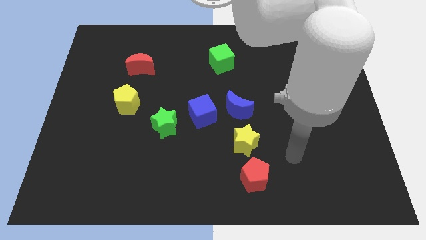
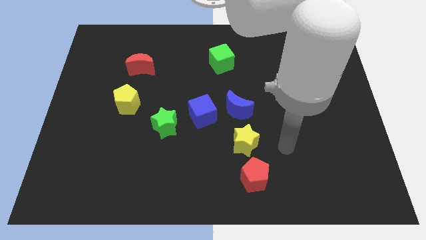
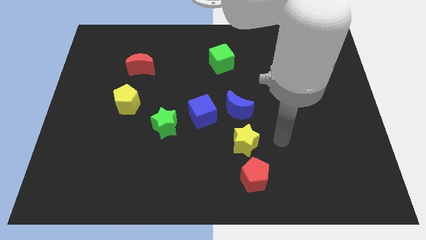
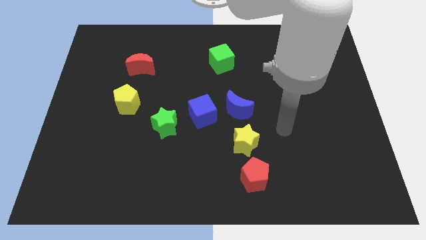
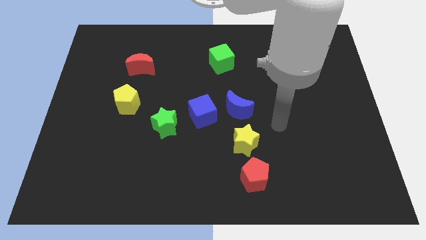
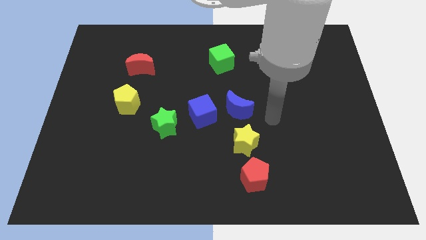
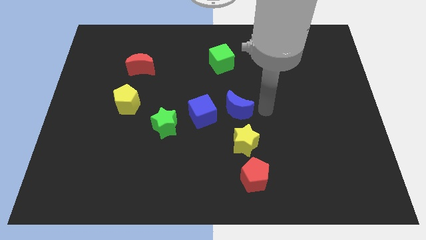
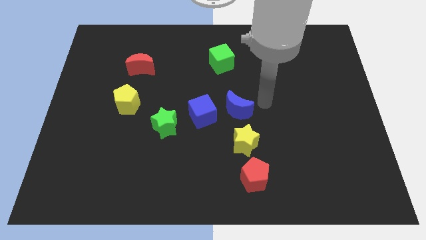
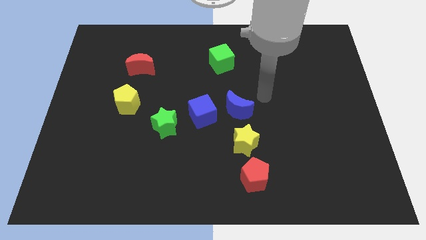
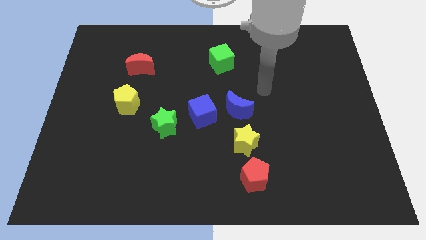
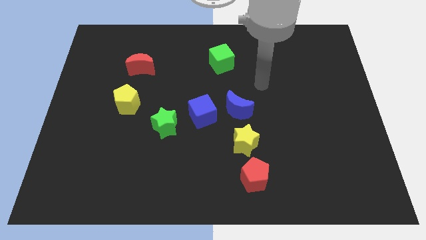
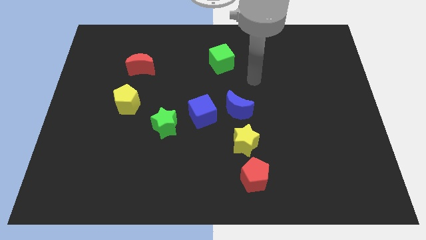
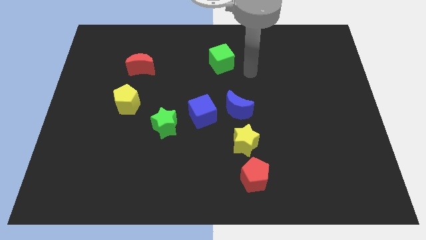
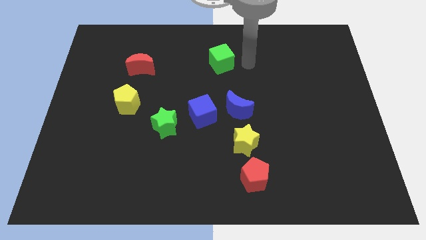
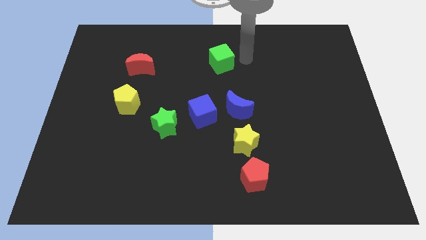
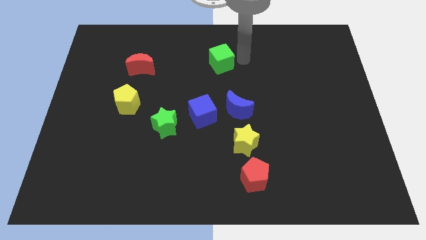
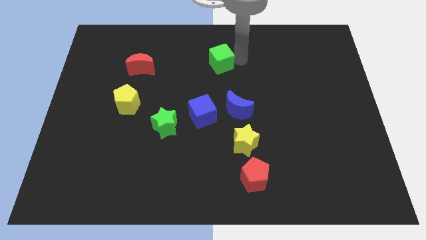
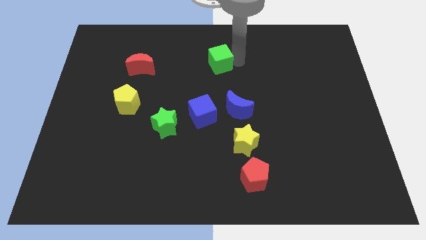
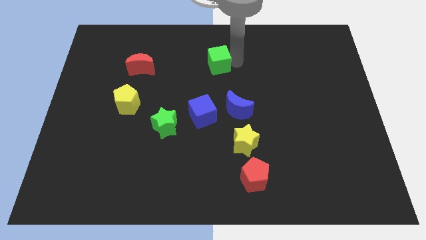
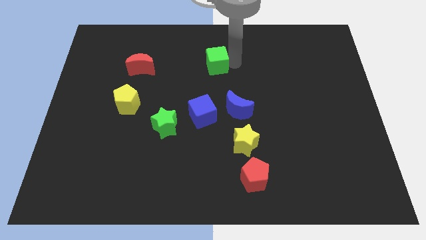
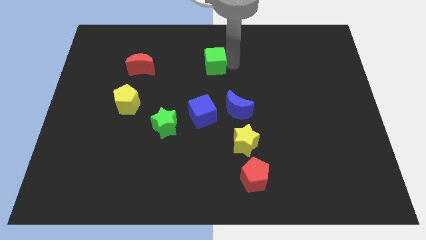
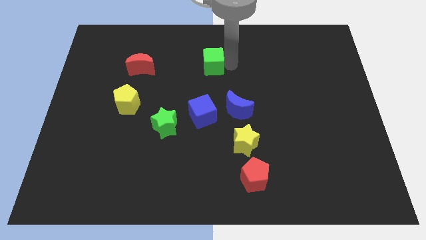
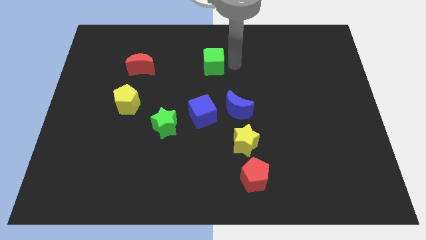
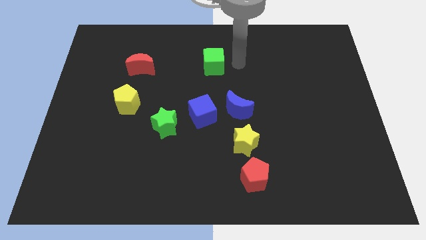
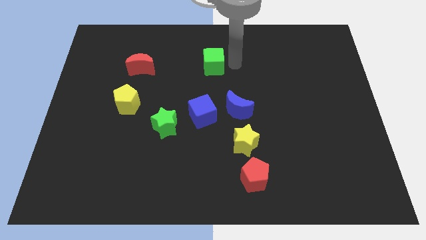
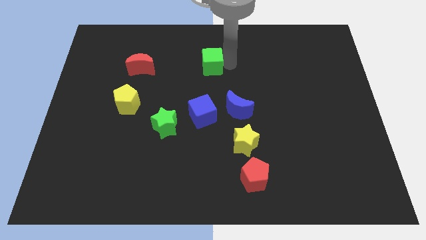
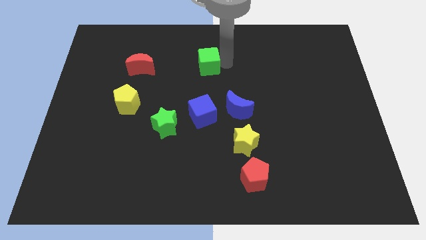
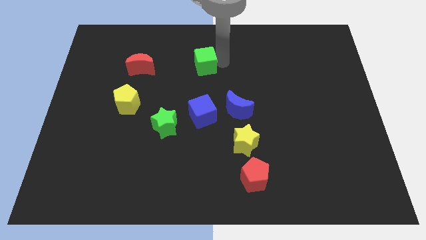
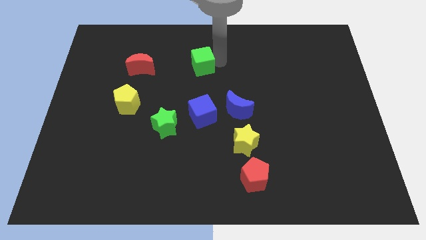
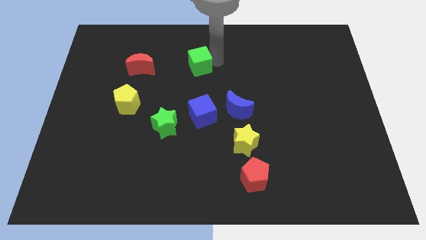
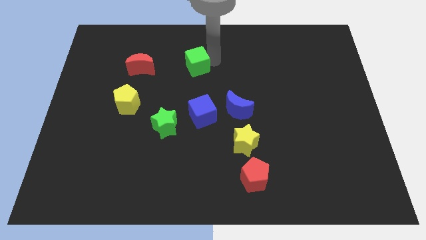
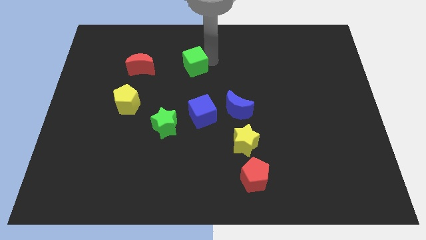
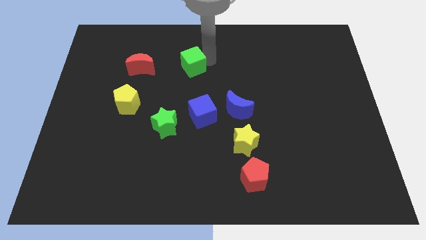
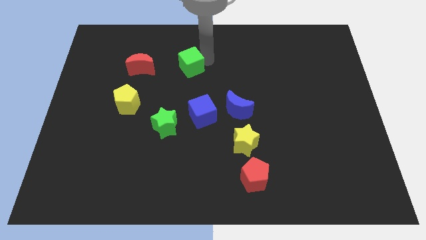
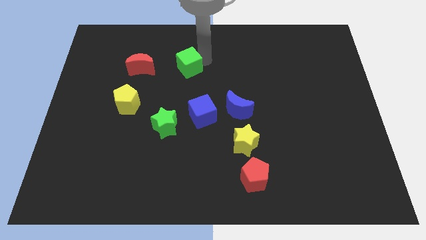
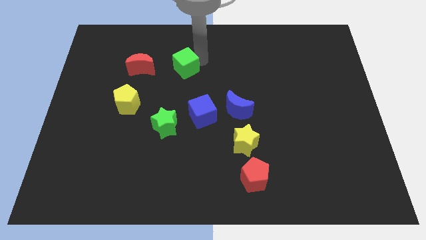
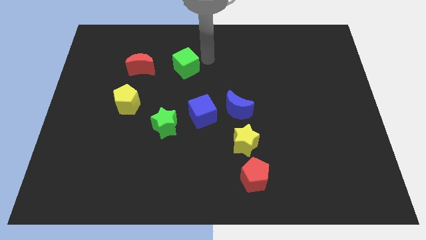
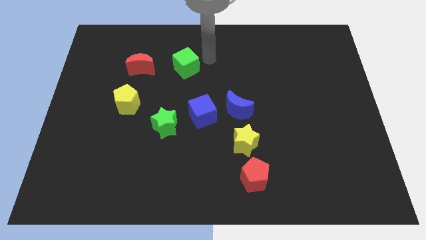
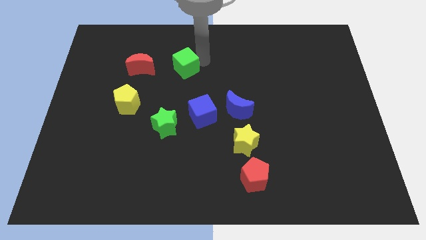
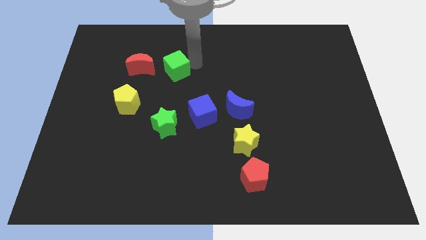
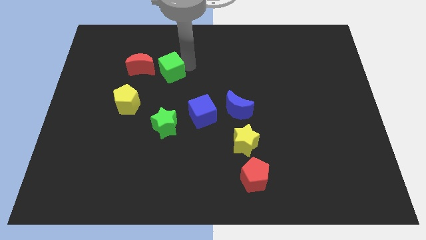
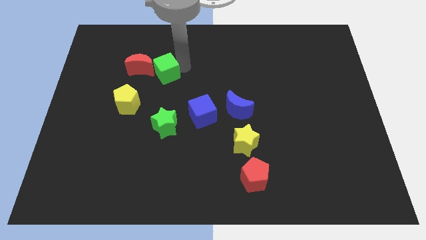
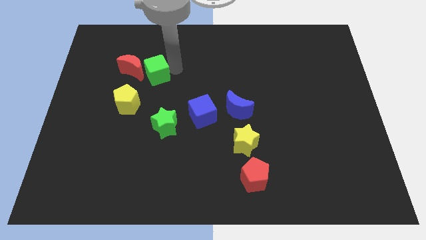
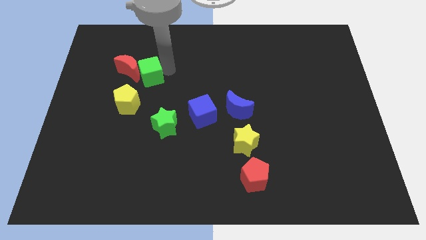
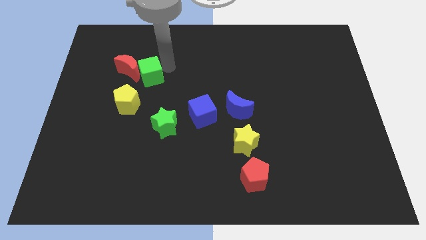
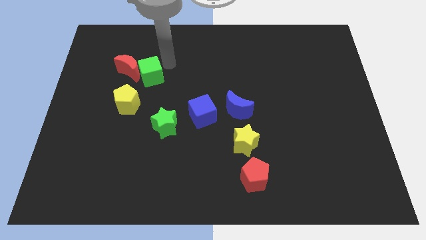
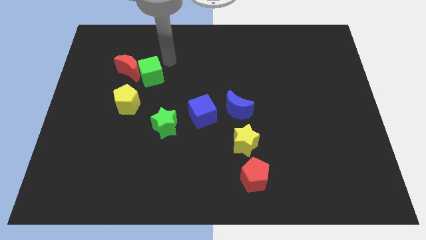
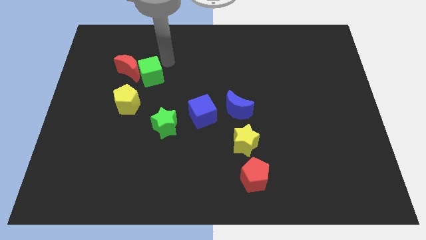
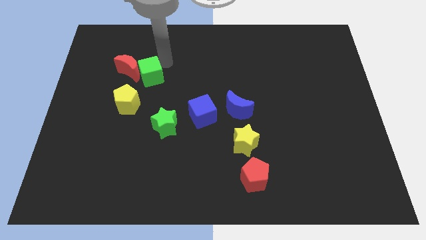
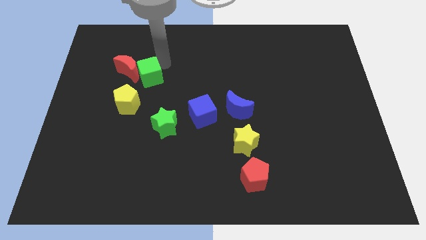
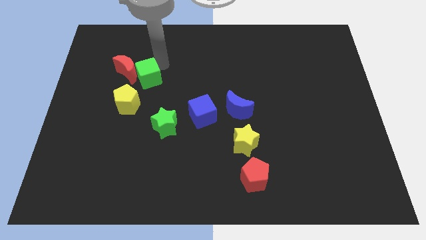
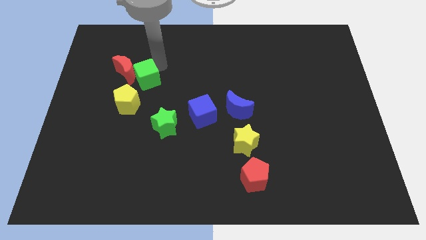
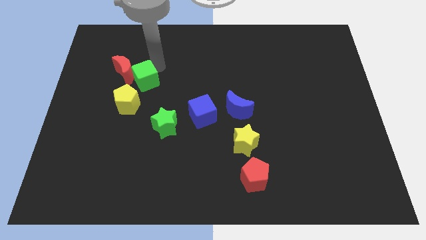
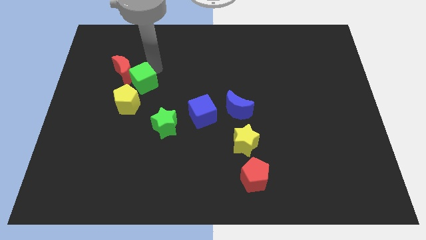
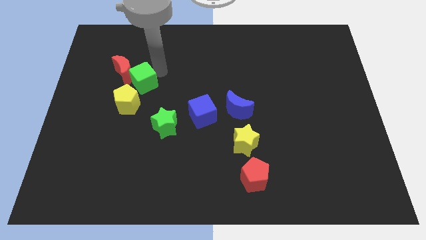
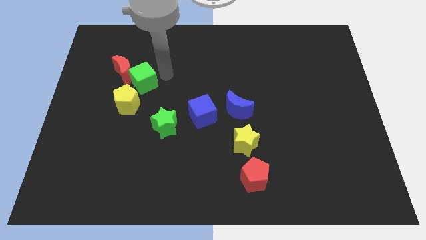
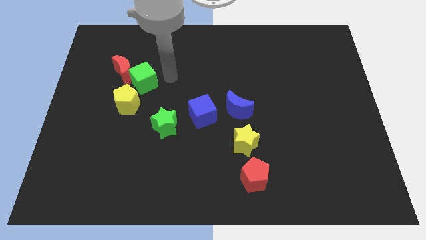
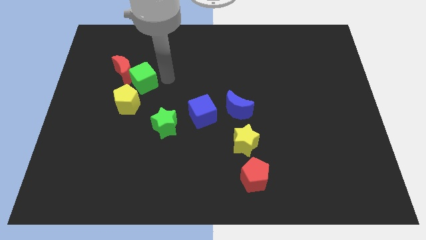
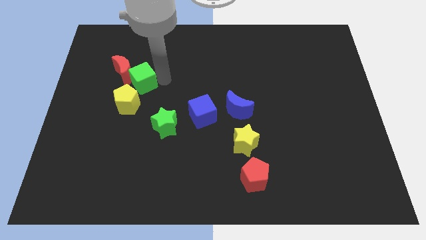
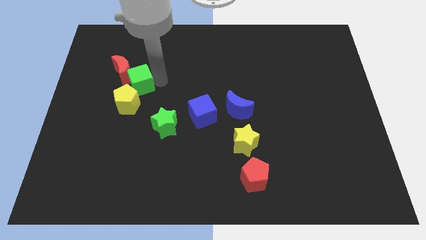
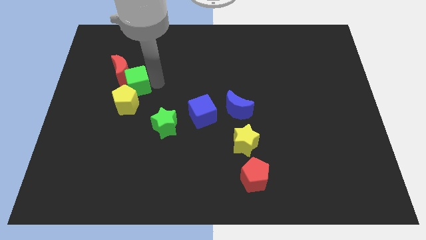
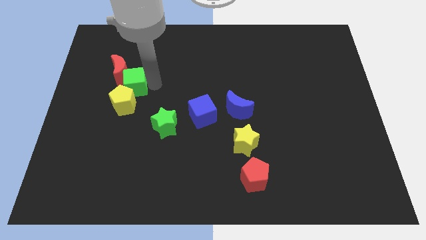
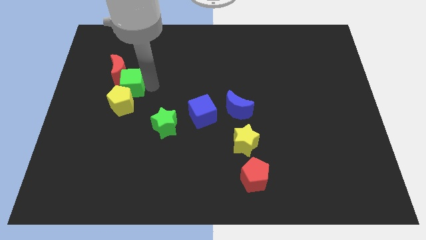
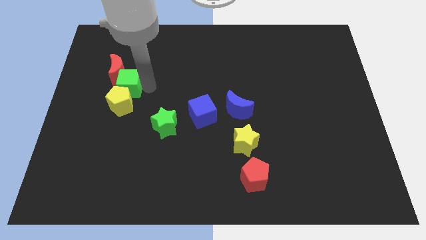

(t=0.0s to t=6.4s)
push the green cube to the top left side of the yellow pentagon

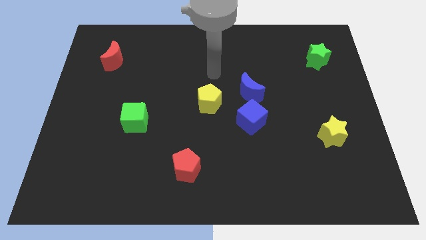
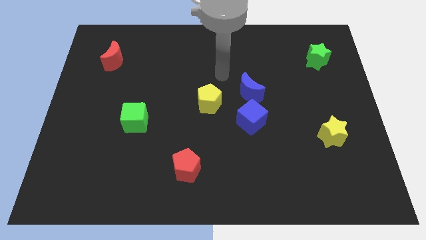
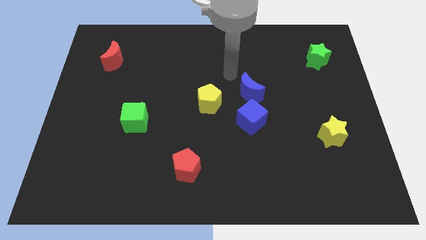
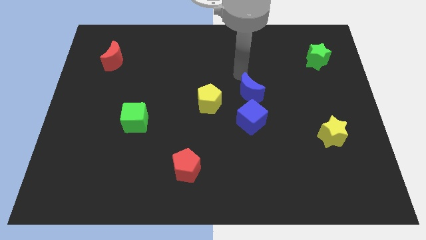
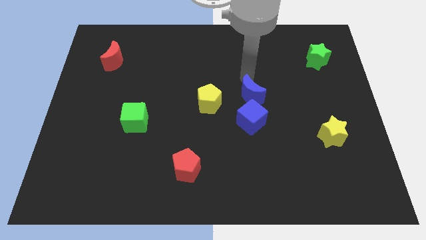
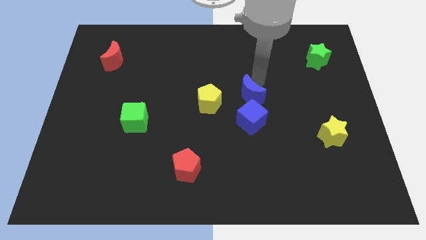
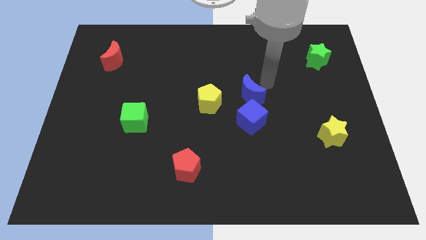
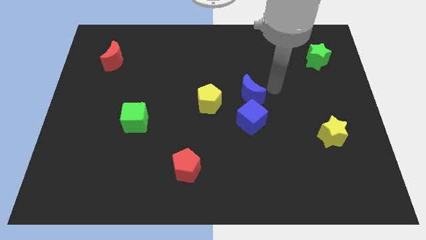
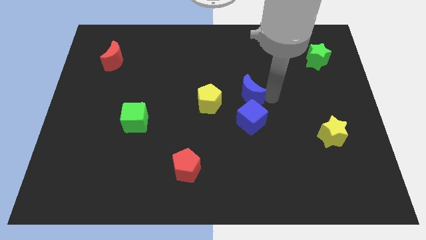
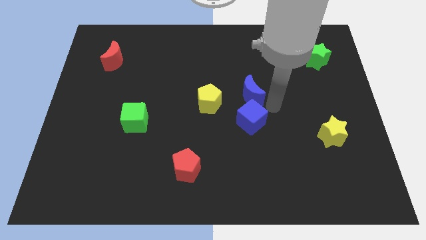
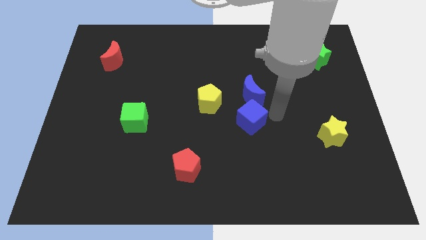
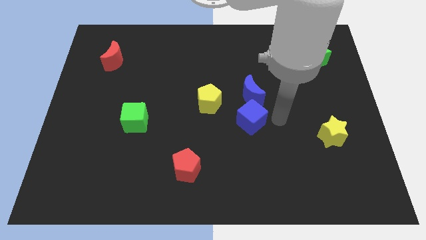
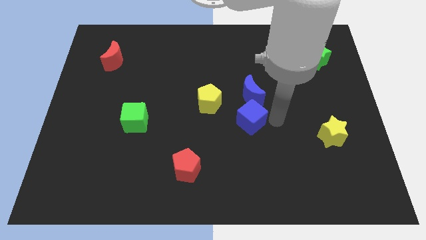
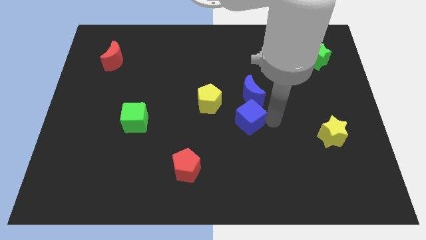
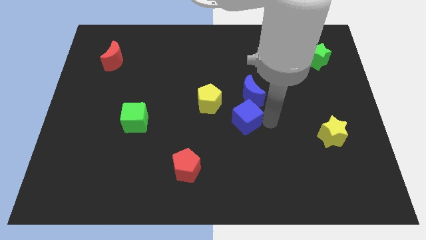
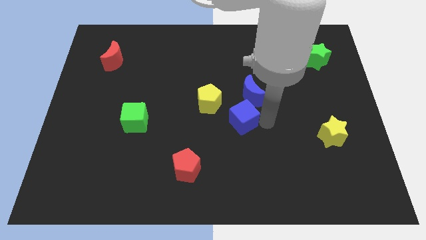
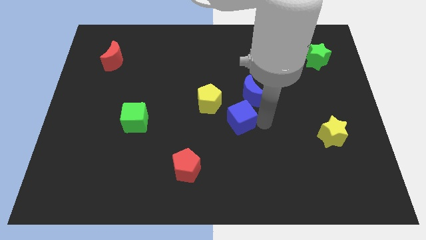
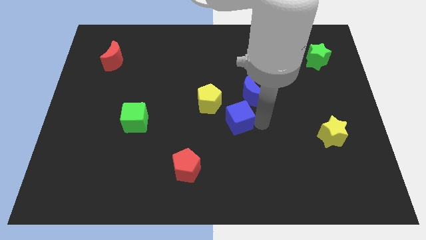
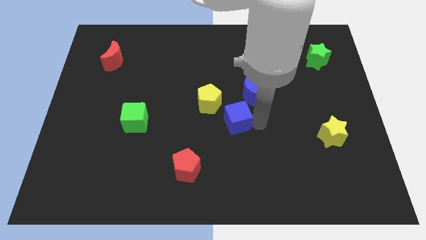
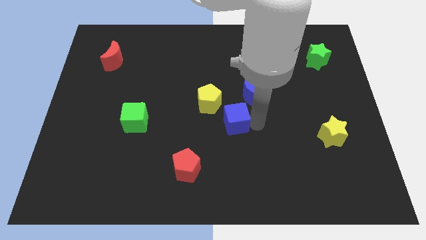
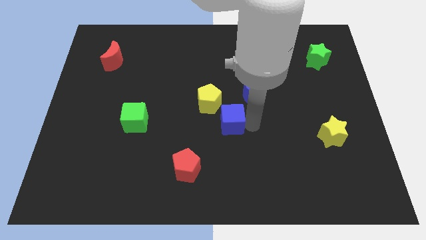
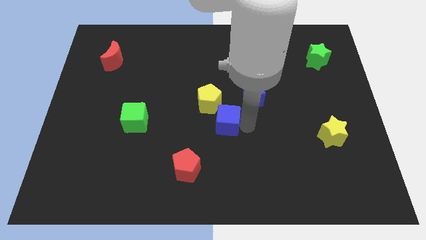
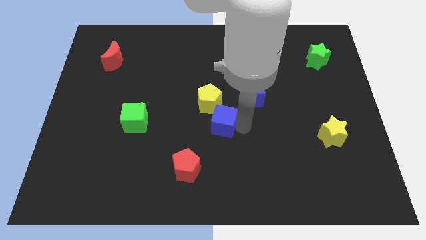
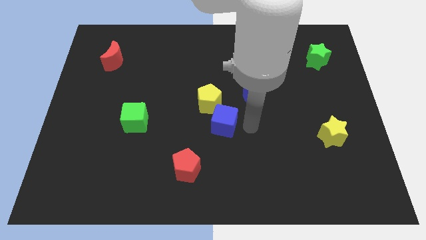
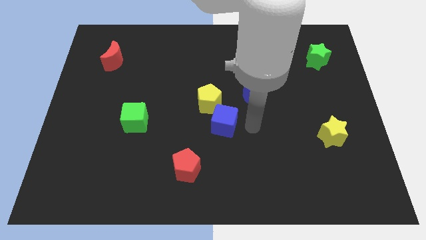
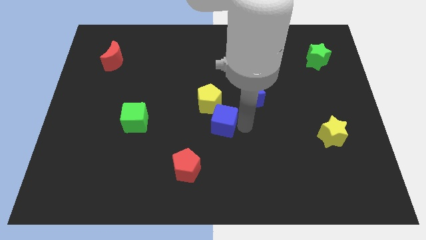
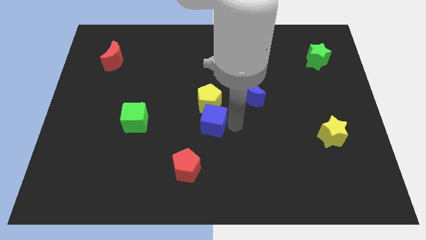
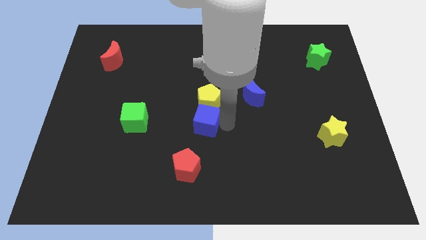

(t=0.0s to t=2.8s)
move the blue cube to the bottom left side of the yellow pentagon
